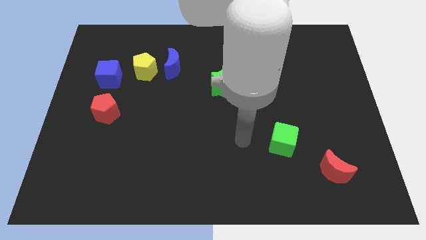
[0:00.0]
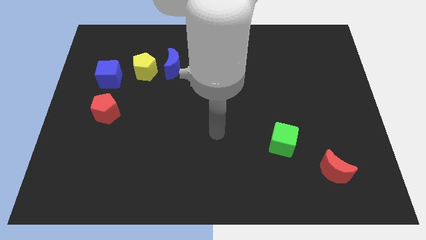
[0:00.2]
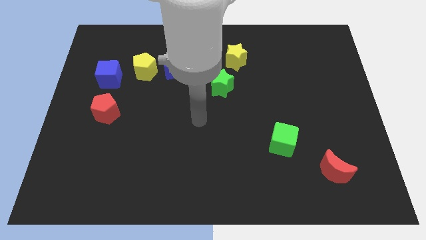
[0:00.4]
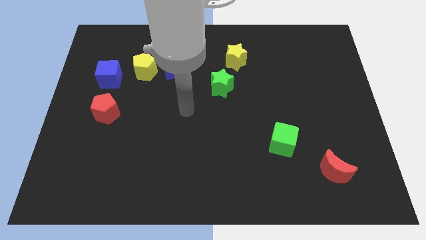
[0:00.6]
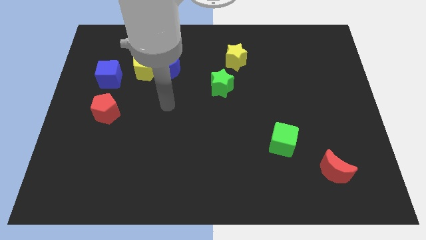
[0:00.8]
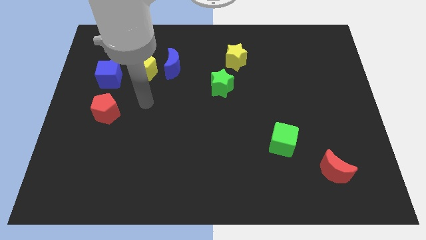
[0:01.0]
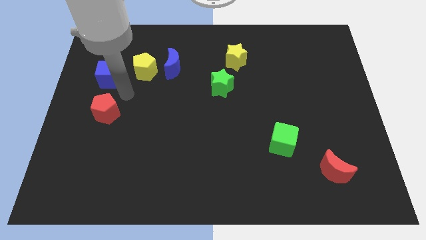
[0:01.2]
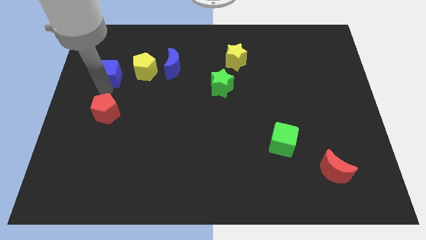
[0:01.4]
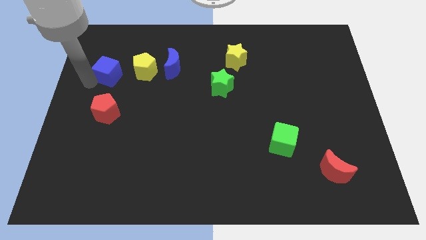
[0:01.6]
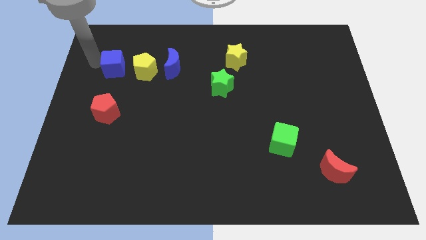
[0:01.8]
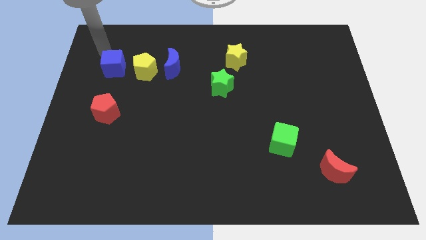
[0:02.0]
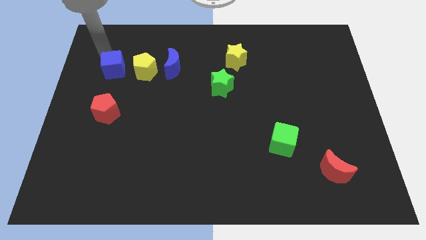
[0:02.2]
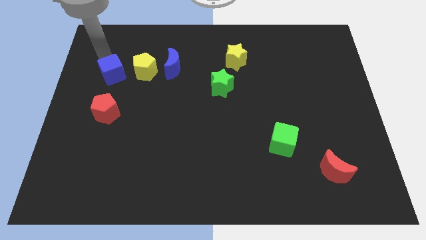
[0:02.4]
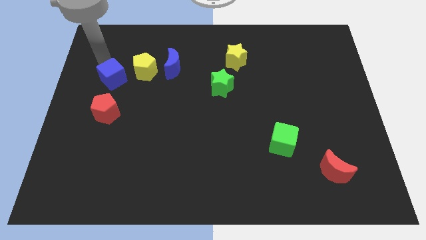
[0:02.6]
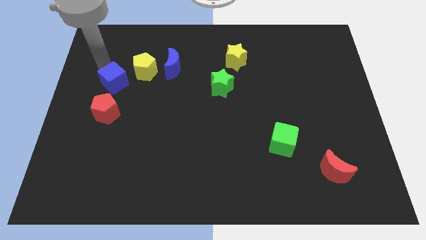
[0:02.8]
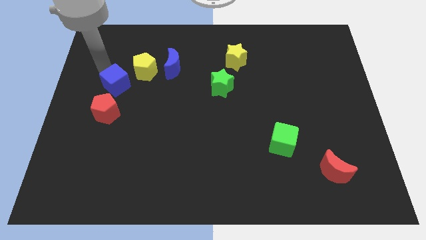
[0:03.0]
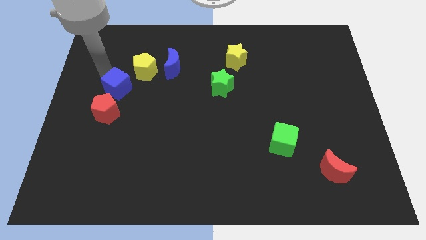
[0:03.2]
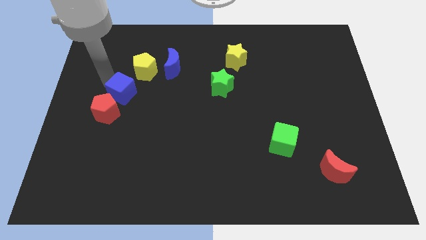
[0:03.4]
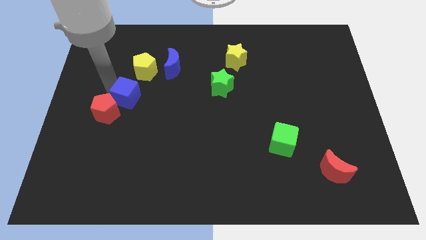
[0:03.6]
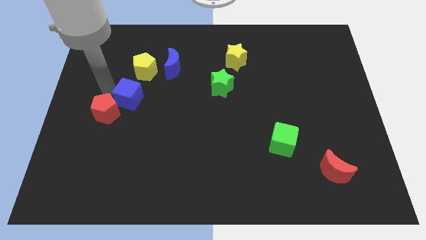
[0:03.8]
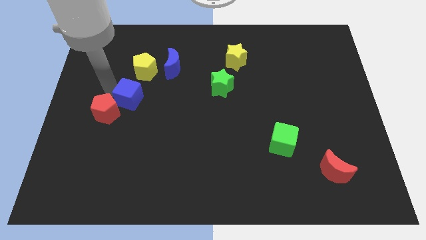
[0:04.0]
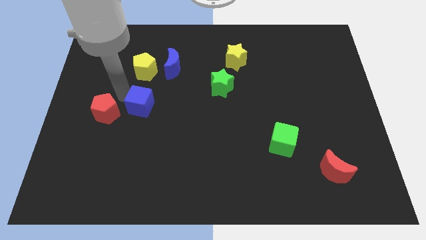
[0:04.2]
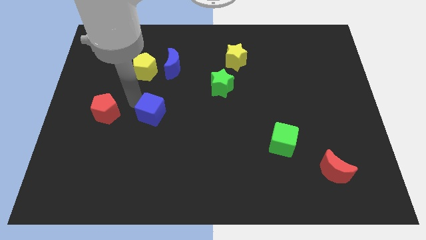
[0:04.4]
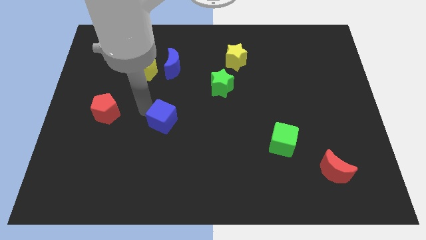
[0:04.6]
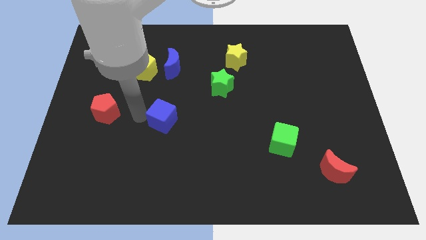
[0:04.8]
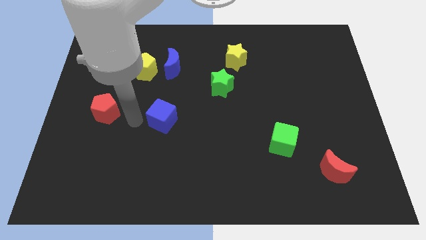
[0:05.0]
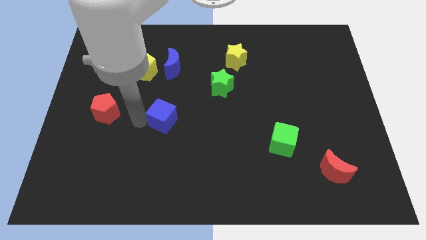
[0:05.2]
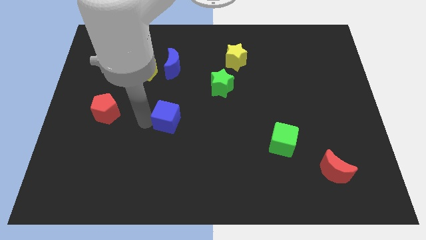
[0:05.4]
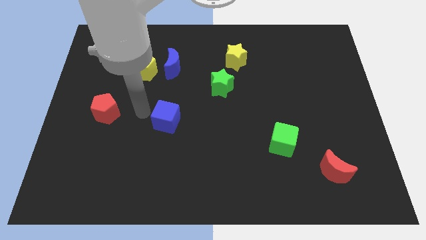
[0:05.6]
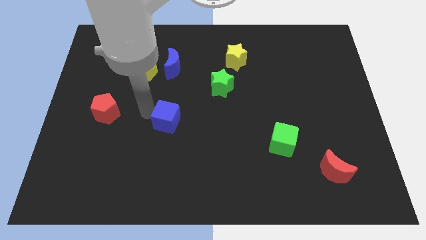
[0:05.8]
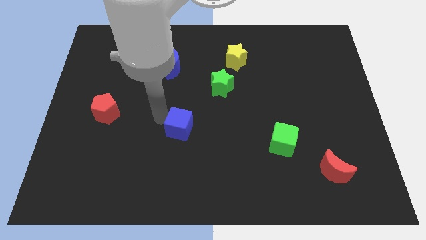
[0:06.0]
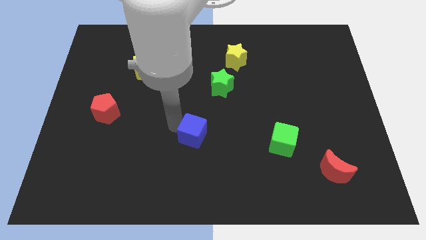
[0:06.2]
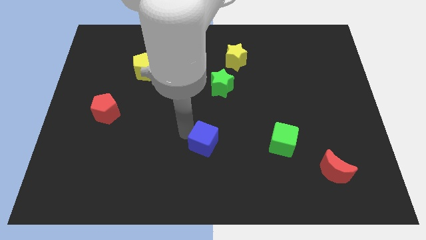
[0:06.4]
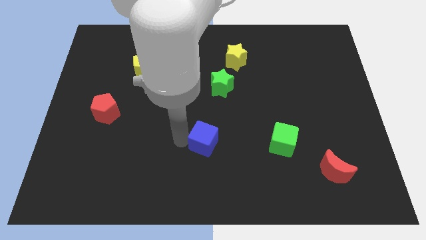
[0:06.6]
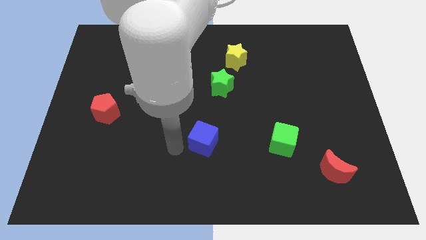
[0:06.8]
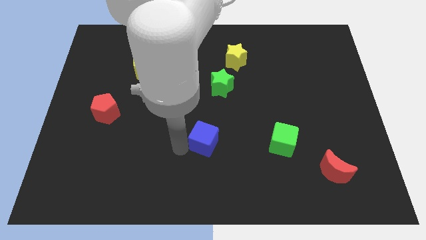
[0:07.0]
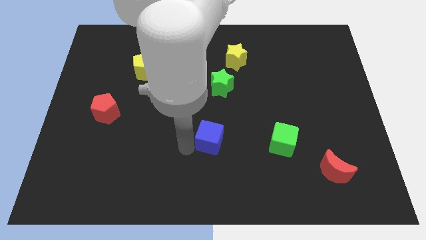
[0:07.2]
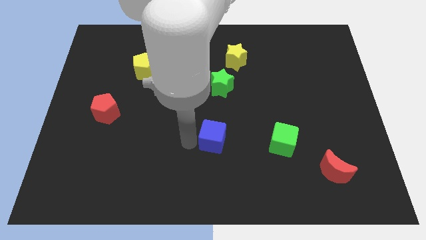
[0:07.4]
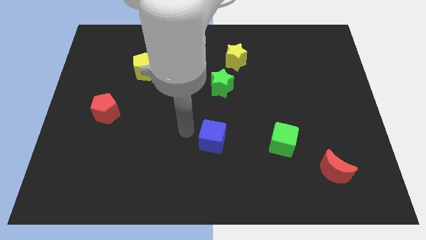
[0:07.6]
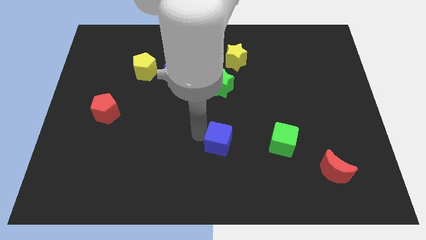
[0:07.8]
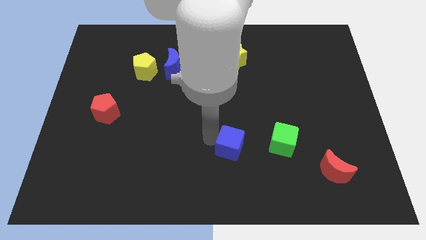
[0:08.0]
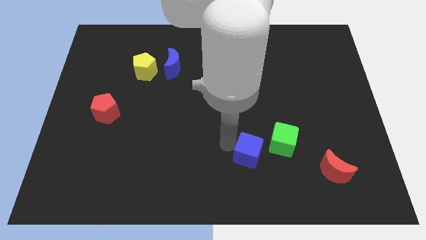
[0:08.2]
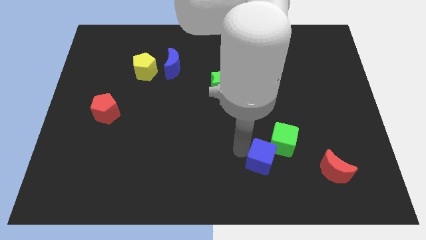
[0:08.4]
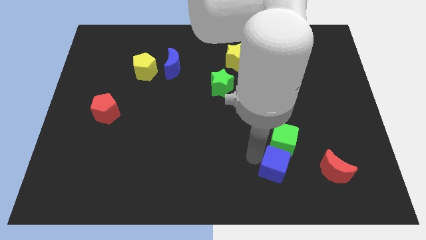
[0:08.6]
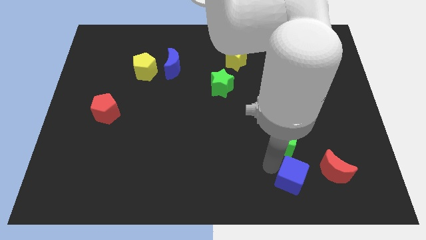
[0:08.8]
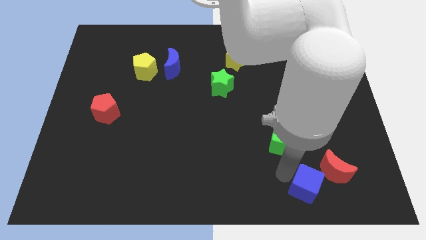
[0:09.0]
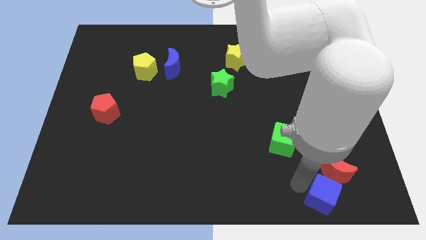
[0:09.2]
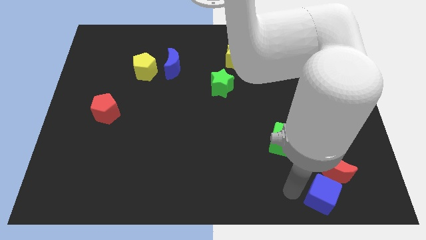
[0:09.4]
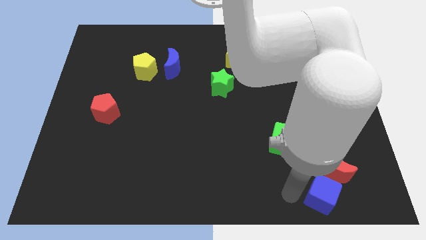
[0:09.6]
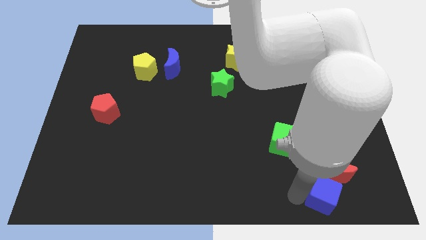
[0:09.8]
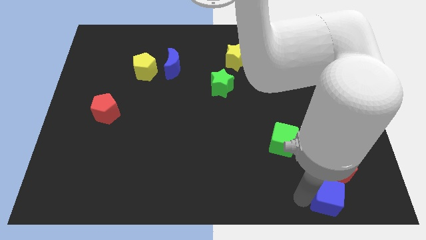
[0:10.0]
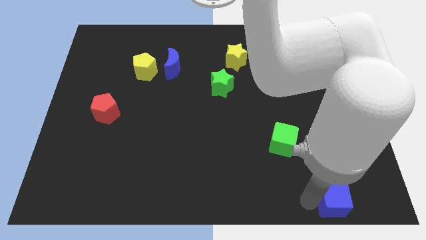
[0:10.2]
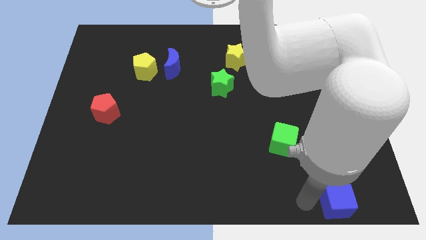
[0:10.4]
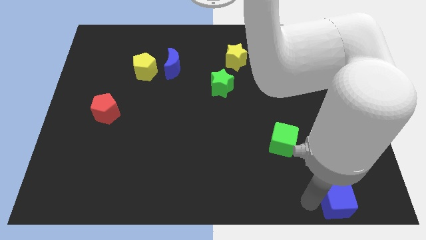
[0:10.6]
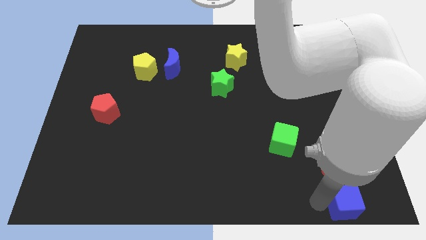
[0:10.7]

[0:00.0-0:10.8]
slide the blue cube to the bottom right

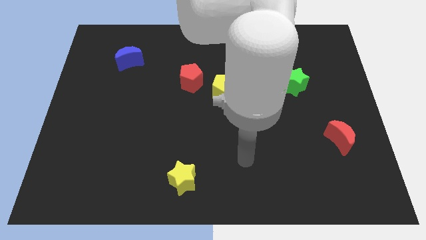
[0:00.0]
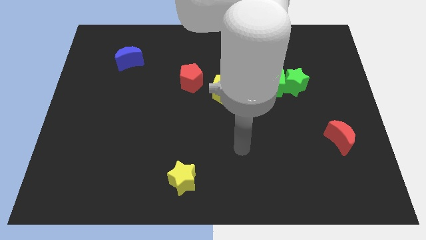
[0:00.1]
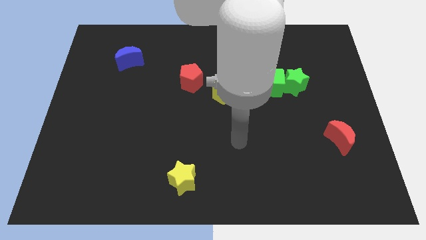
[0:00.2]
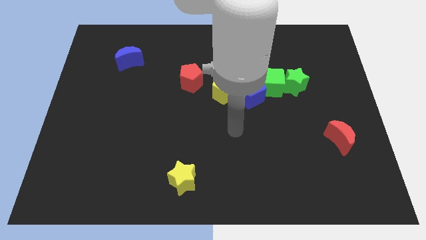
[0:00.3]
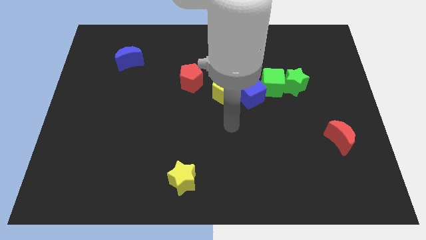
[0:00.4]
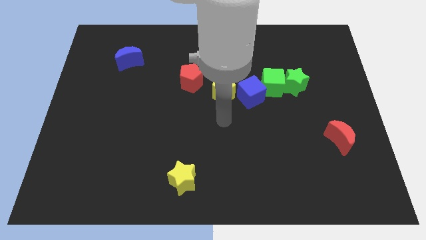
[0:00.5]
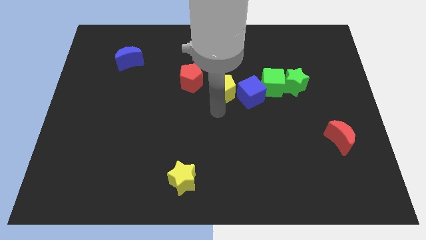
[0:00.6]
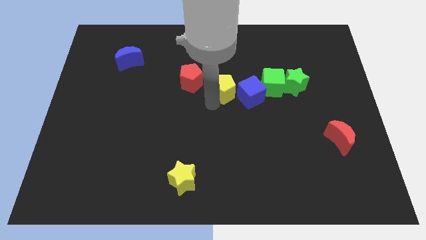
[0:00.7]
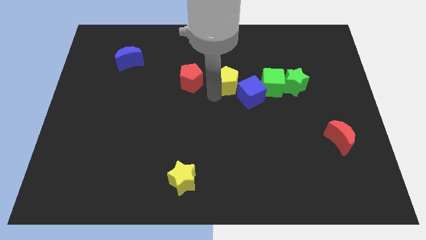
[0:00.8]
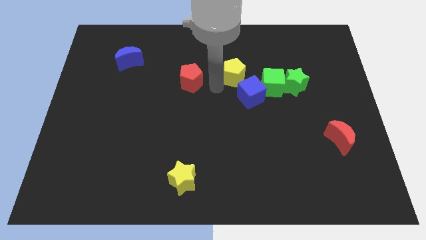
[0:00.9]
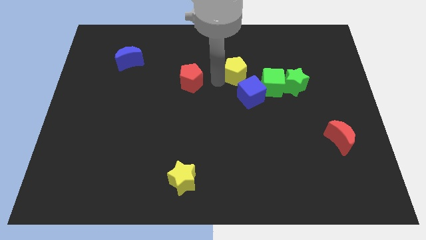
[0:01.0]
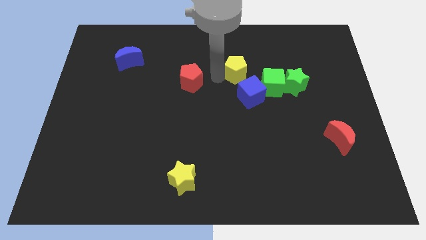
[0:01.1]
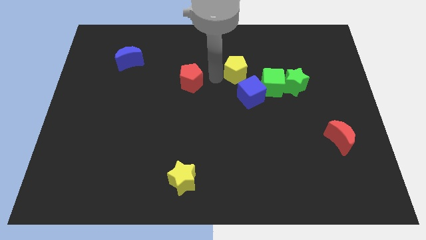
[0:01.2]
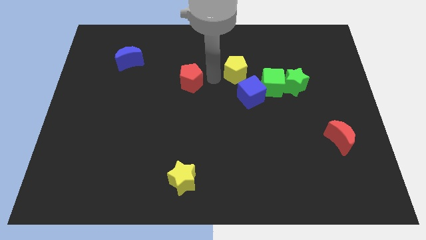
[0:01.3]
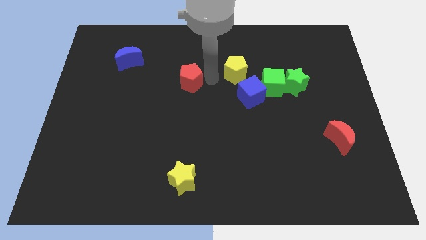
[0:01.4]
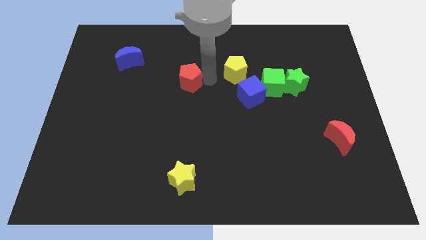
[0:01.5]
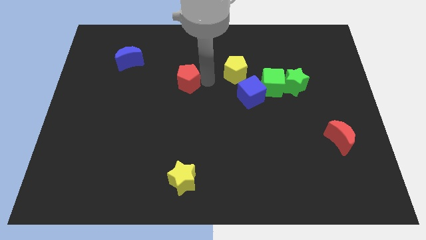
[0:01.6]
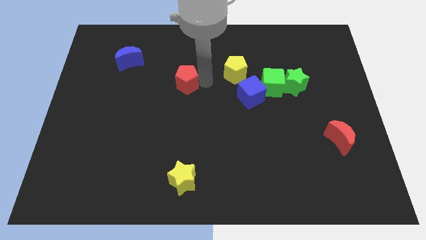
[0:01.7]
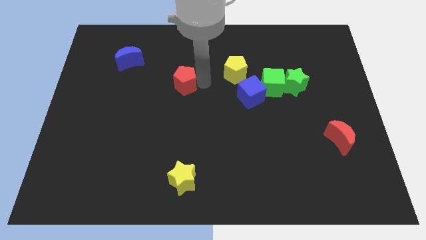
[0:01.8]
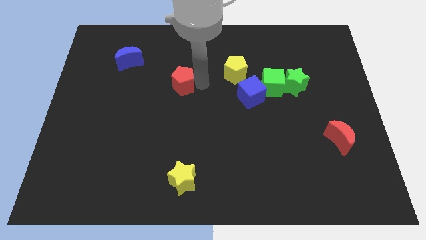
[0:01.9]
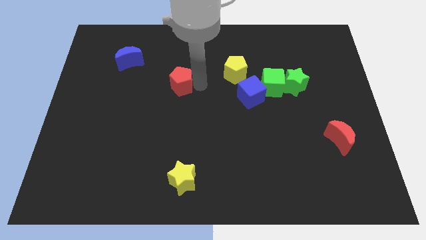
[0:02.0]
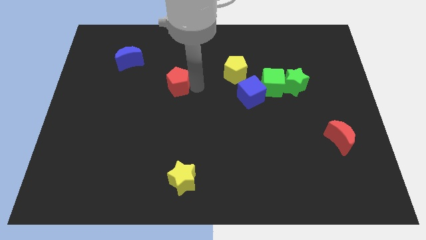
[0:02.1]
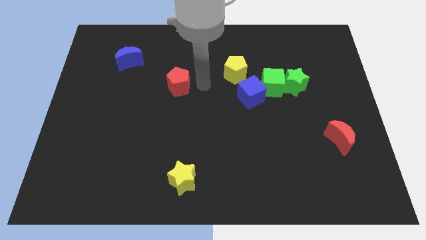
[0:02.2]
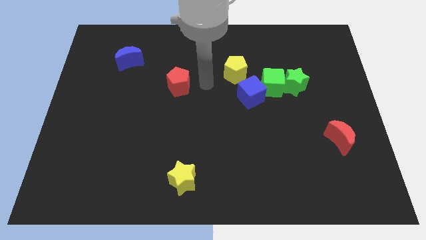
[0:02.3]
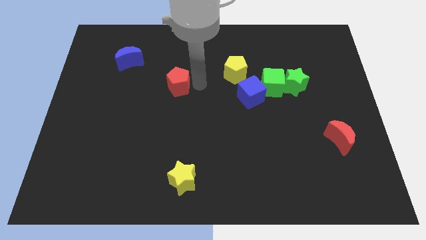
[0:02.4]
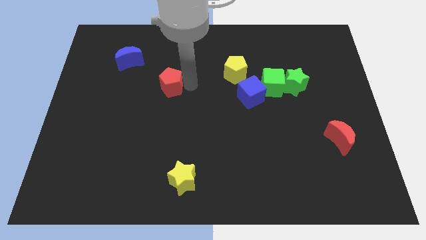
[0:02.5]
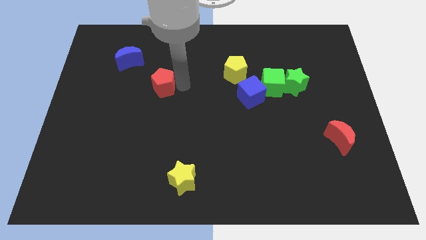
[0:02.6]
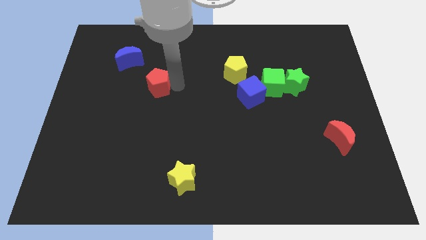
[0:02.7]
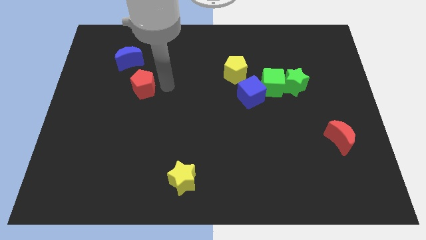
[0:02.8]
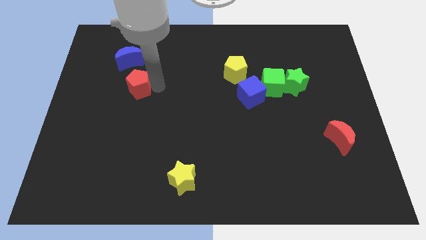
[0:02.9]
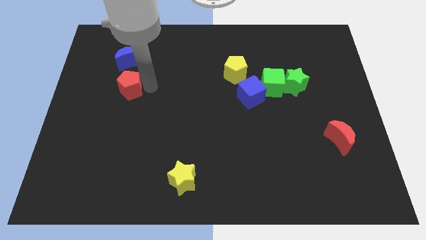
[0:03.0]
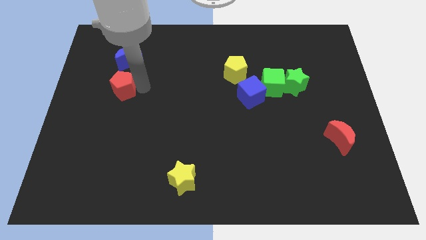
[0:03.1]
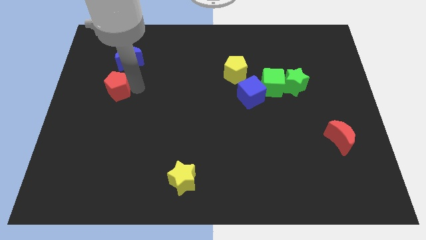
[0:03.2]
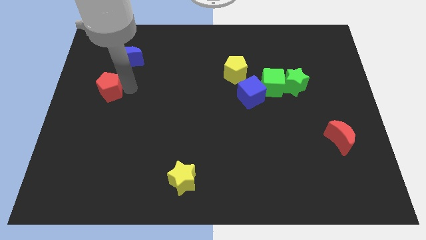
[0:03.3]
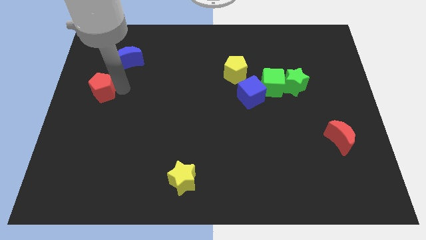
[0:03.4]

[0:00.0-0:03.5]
put the red pentagon to the left side
